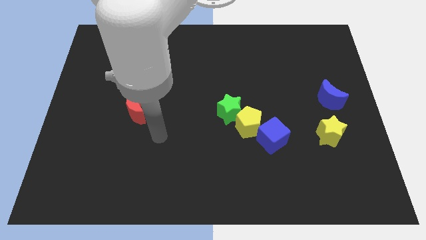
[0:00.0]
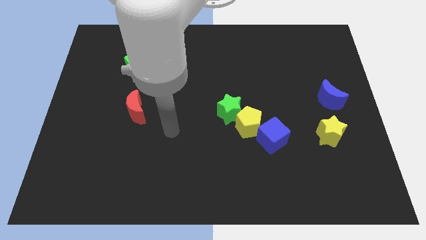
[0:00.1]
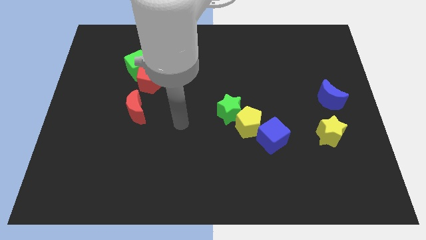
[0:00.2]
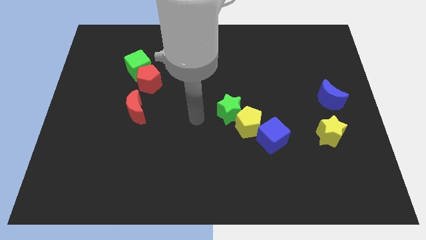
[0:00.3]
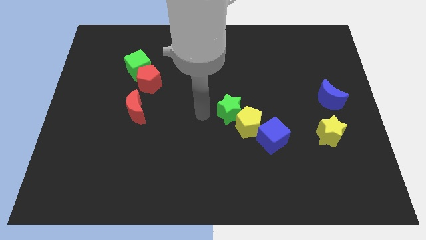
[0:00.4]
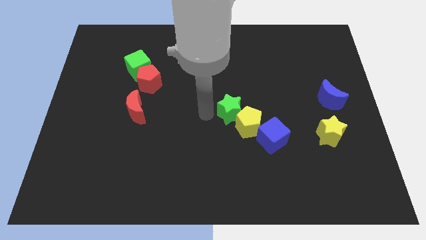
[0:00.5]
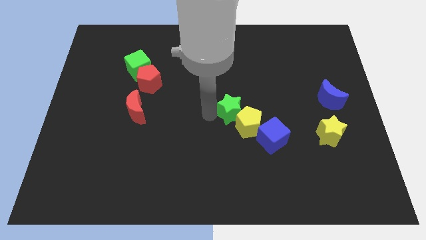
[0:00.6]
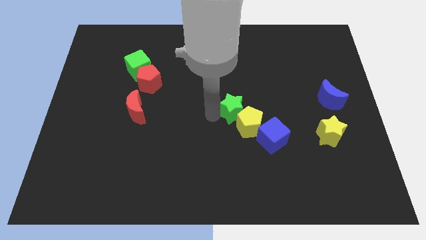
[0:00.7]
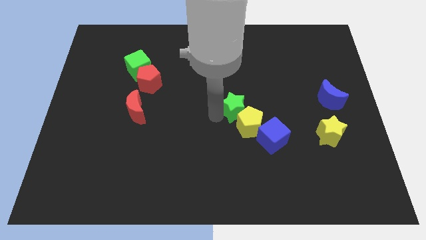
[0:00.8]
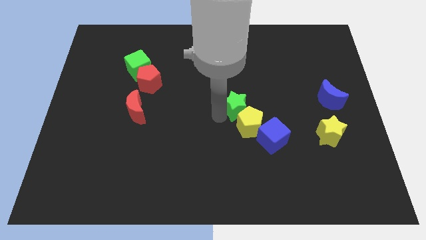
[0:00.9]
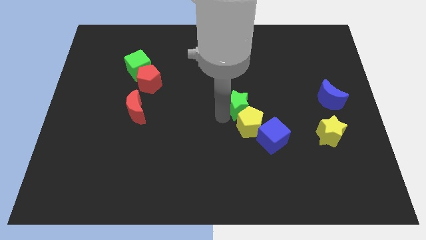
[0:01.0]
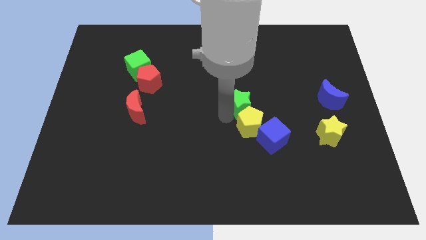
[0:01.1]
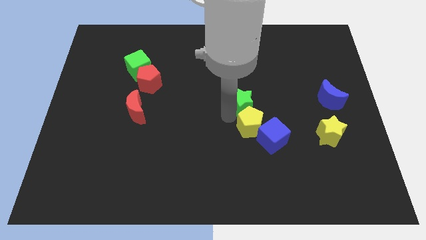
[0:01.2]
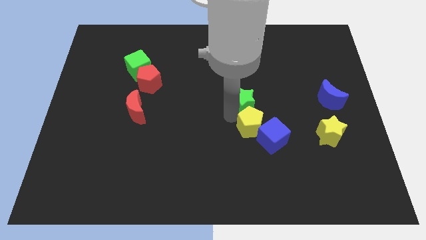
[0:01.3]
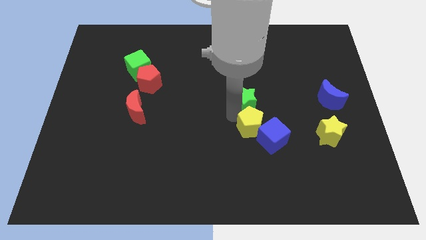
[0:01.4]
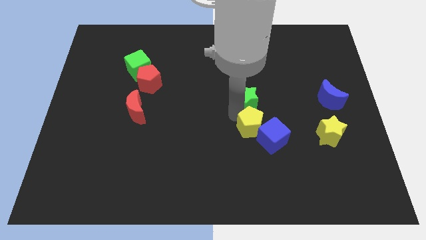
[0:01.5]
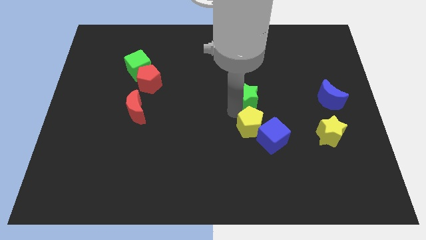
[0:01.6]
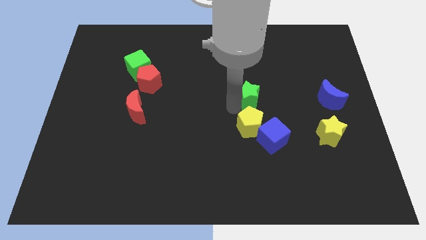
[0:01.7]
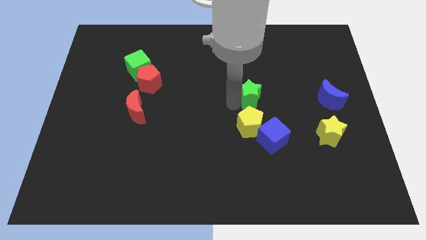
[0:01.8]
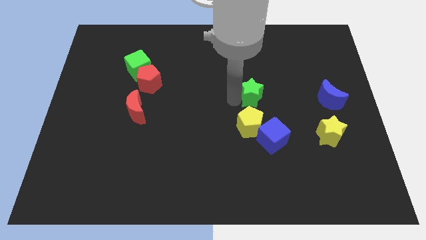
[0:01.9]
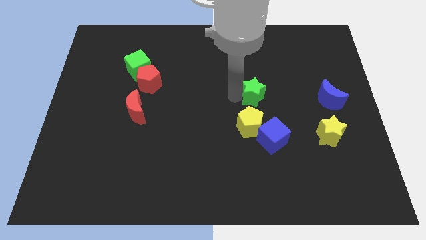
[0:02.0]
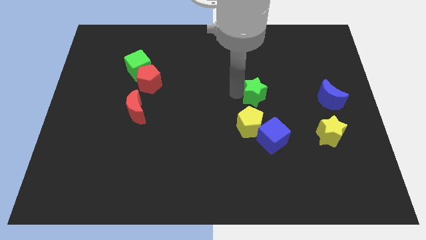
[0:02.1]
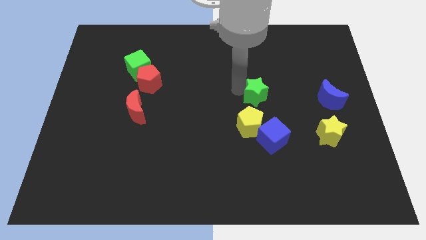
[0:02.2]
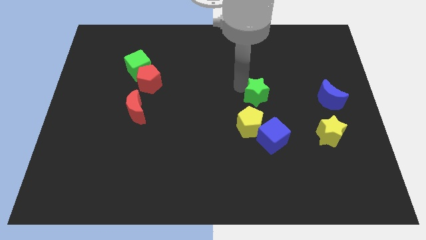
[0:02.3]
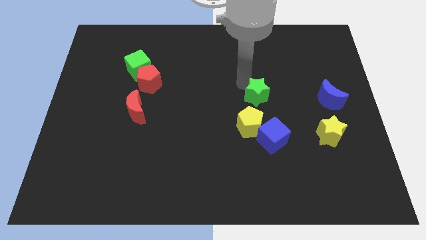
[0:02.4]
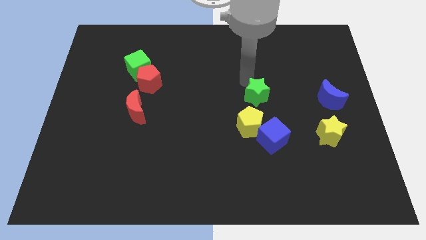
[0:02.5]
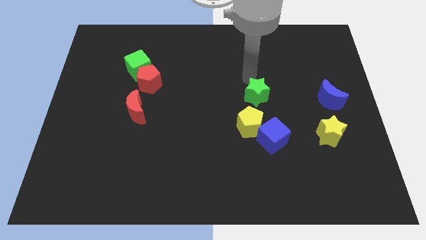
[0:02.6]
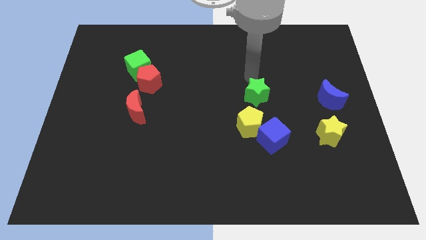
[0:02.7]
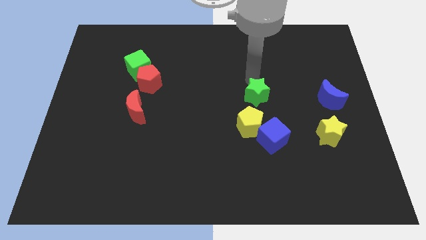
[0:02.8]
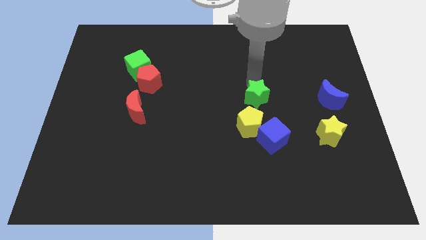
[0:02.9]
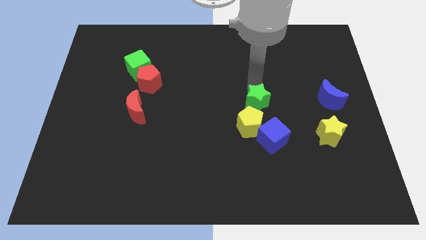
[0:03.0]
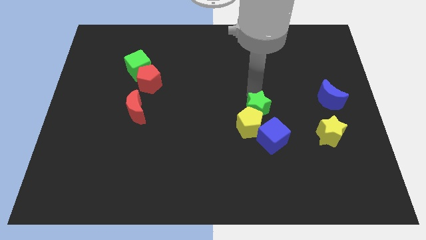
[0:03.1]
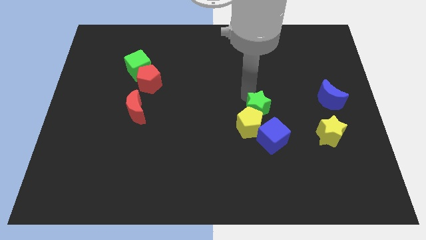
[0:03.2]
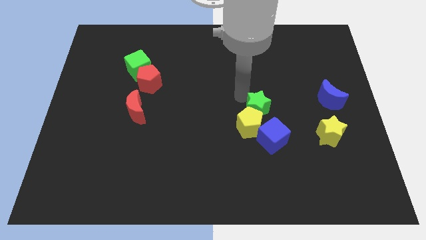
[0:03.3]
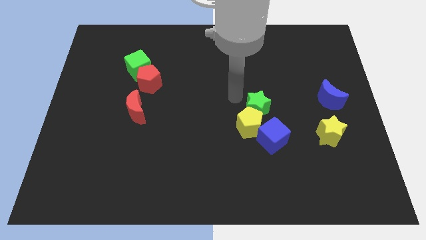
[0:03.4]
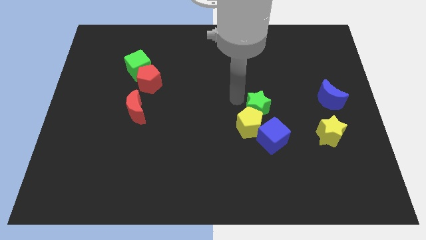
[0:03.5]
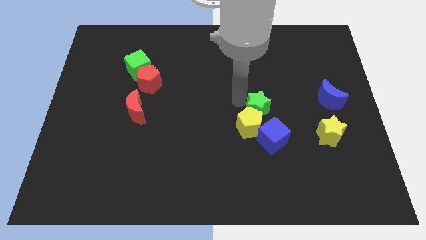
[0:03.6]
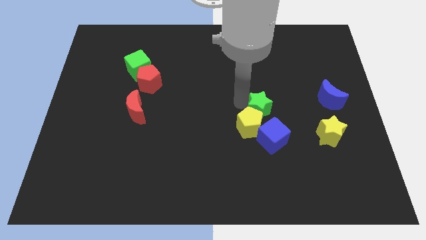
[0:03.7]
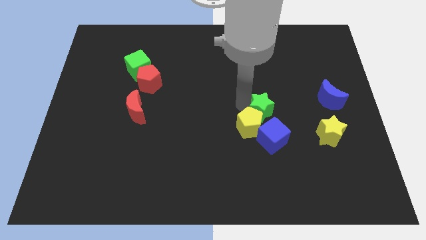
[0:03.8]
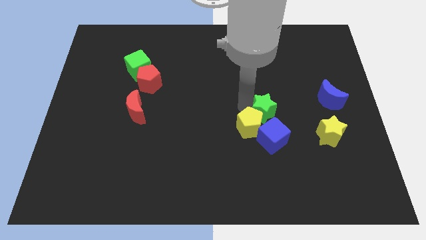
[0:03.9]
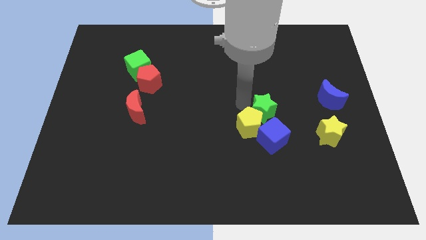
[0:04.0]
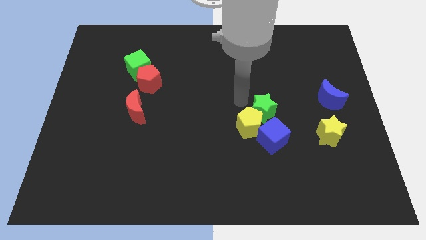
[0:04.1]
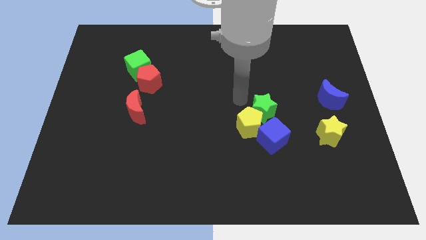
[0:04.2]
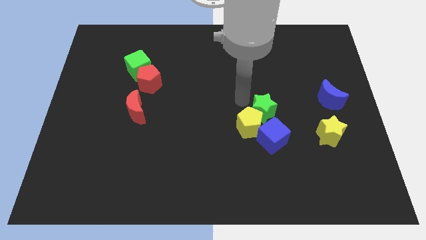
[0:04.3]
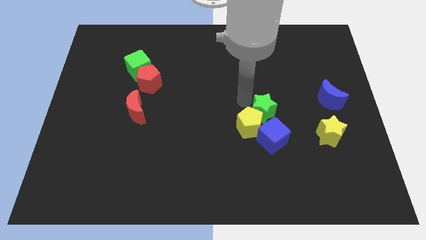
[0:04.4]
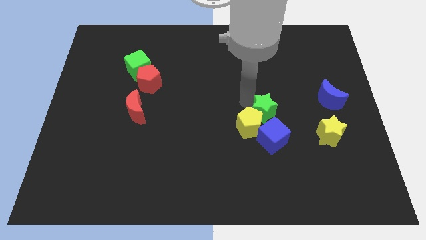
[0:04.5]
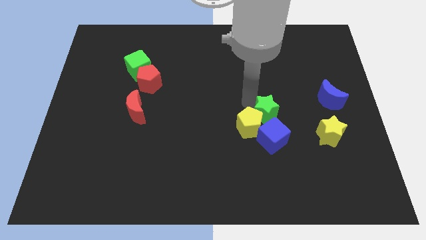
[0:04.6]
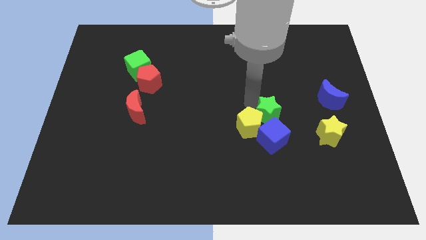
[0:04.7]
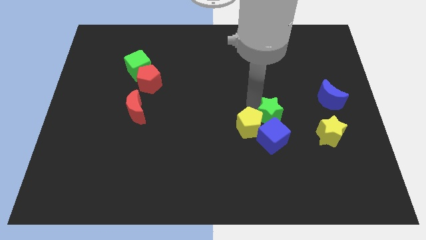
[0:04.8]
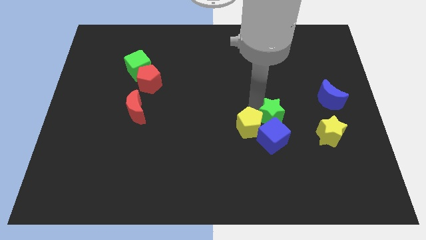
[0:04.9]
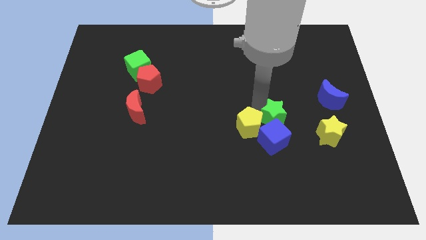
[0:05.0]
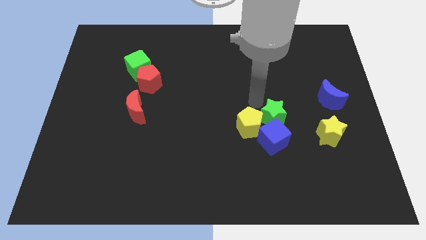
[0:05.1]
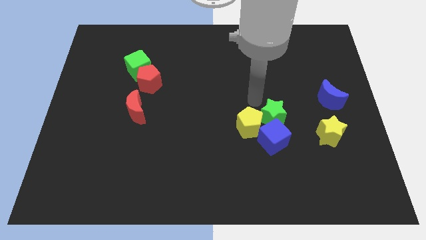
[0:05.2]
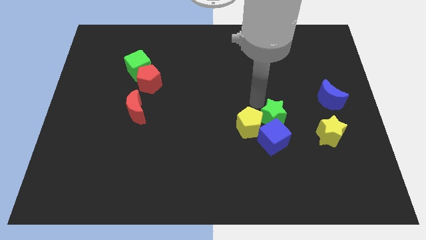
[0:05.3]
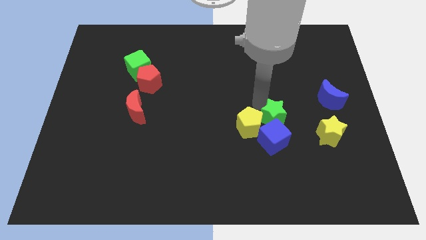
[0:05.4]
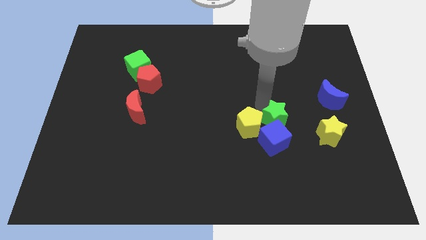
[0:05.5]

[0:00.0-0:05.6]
slightly move the green star down and to the right diagonally

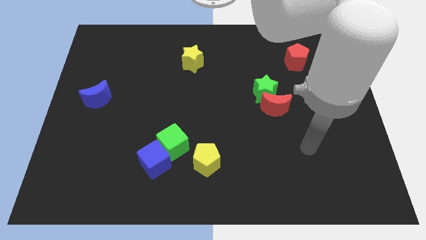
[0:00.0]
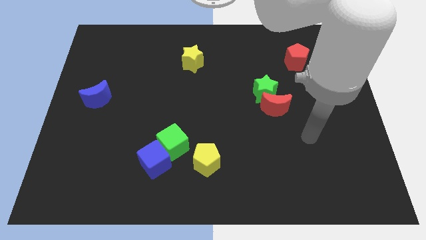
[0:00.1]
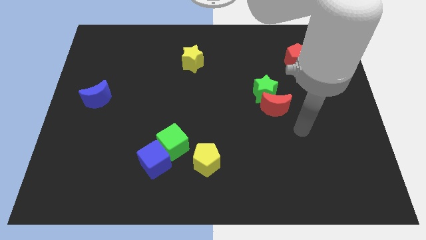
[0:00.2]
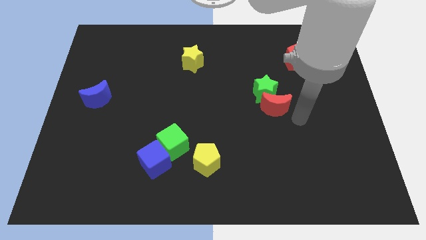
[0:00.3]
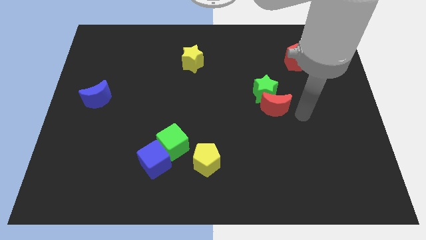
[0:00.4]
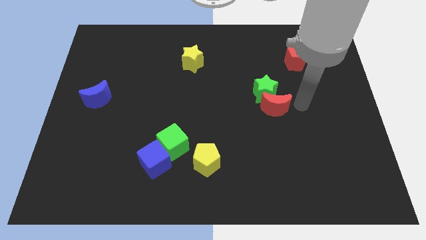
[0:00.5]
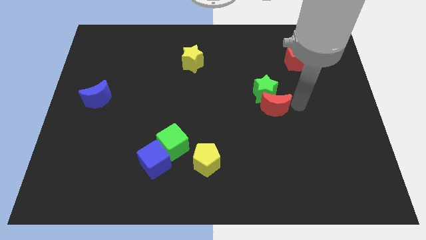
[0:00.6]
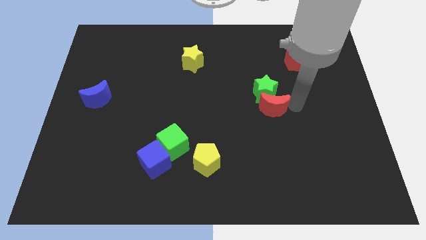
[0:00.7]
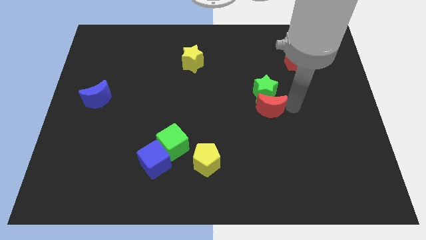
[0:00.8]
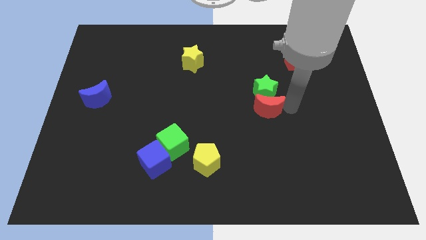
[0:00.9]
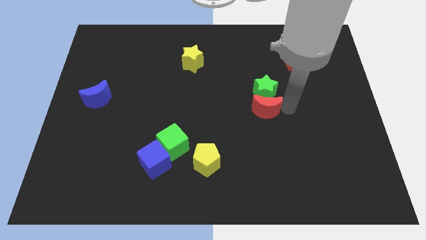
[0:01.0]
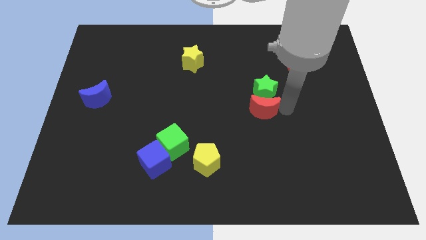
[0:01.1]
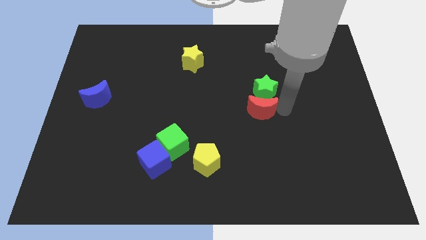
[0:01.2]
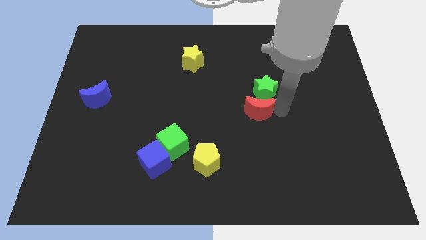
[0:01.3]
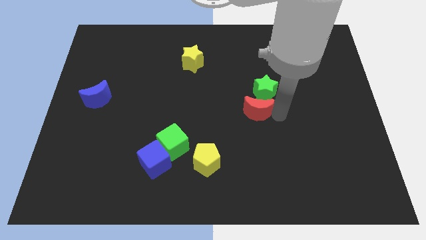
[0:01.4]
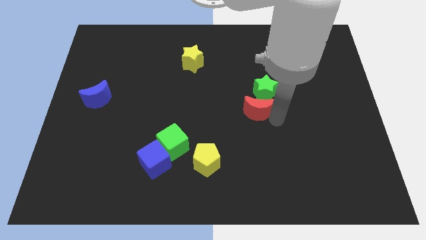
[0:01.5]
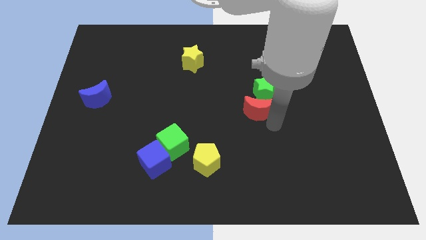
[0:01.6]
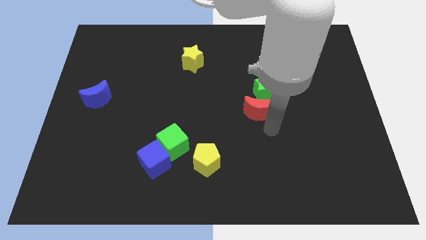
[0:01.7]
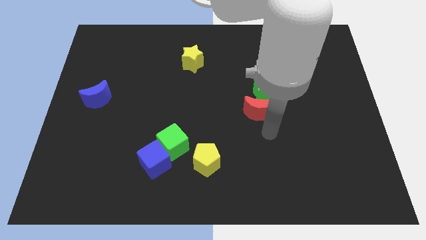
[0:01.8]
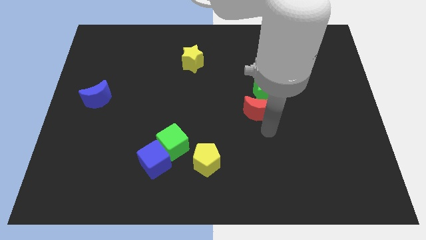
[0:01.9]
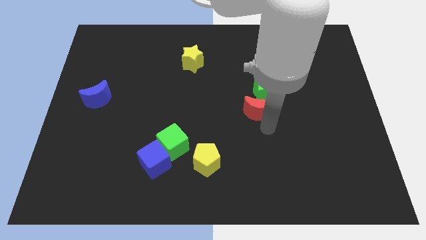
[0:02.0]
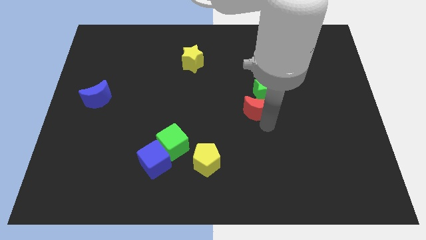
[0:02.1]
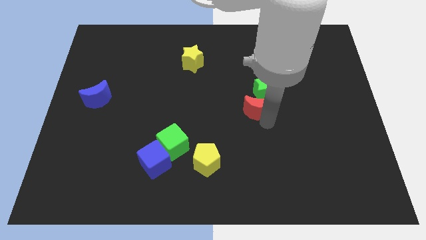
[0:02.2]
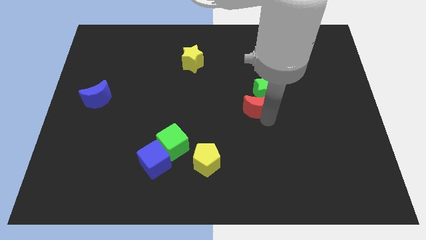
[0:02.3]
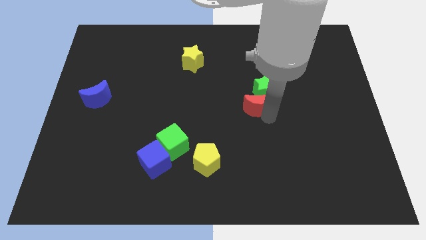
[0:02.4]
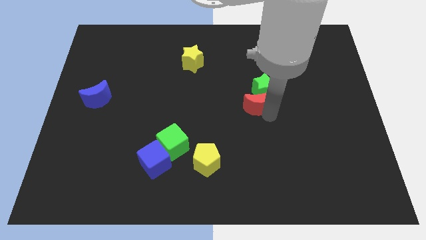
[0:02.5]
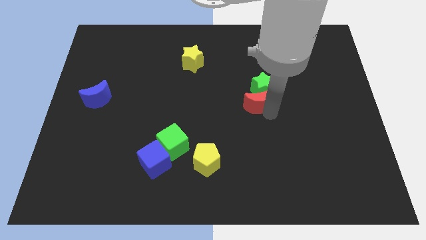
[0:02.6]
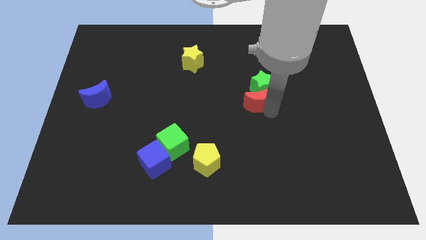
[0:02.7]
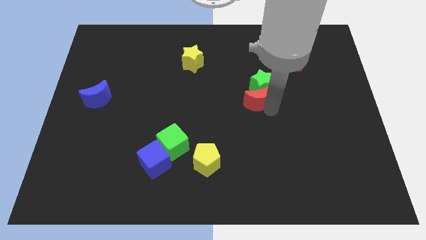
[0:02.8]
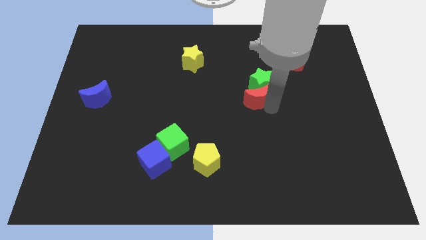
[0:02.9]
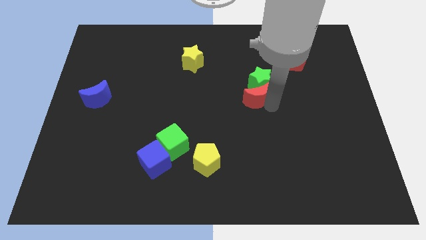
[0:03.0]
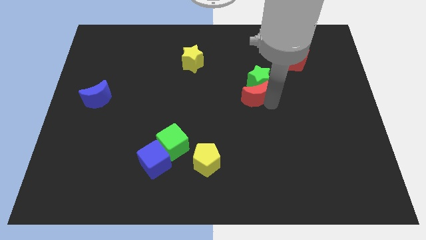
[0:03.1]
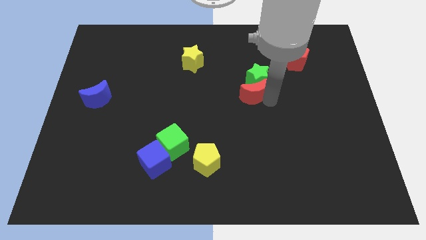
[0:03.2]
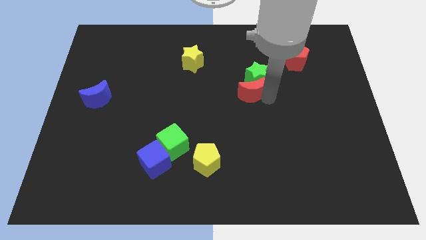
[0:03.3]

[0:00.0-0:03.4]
move the red moon a bit upwards and to the left diagonally
